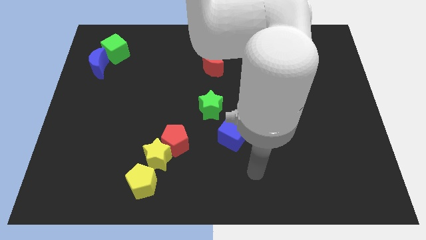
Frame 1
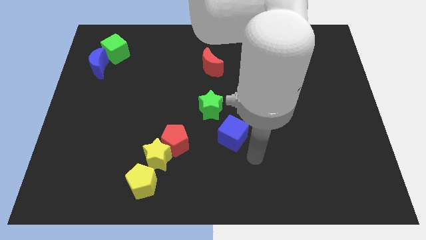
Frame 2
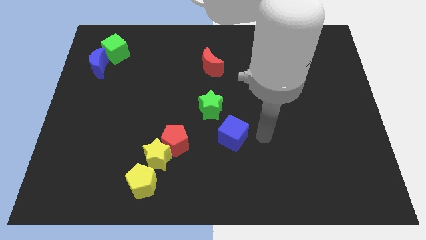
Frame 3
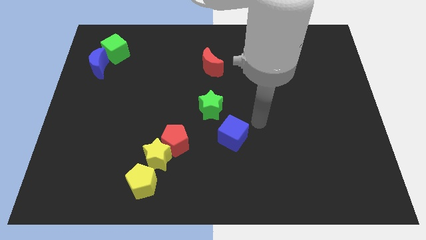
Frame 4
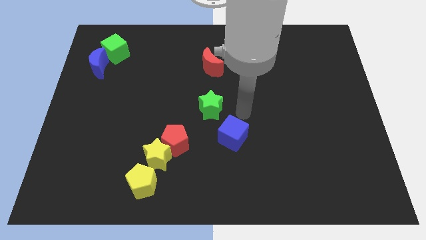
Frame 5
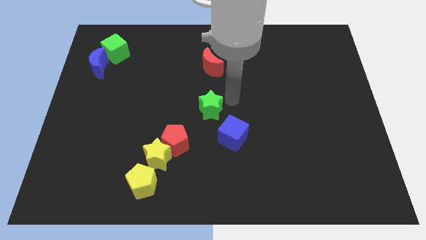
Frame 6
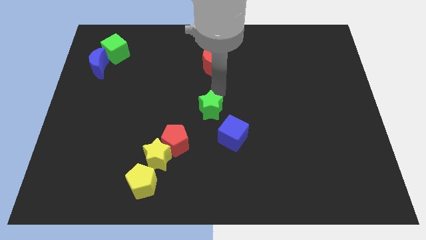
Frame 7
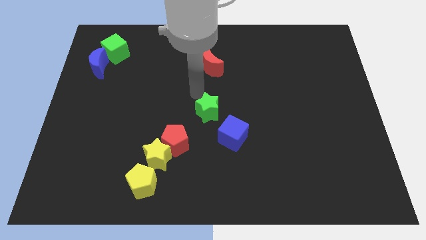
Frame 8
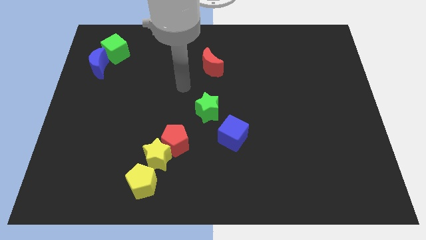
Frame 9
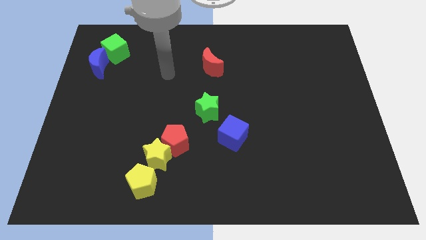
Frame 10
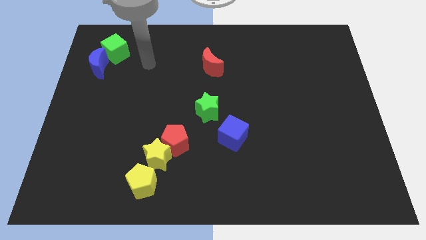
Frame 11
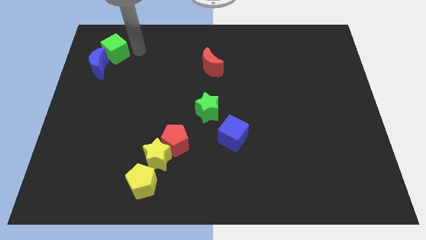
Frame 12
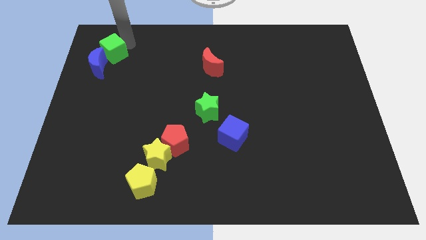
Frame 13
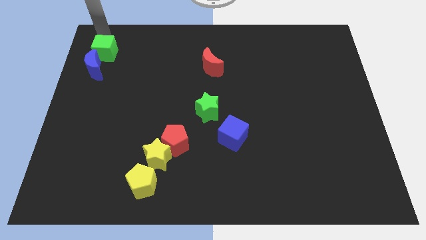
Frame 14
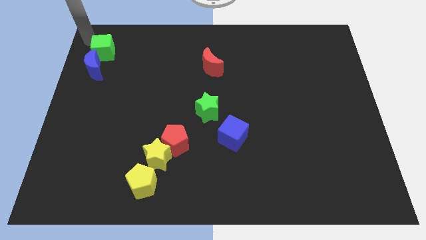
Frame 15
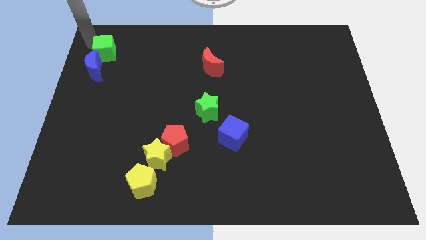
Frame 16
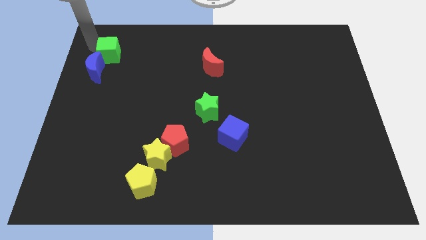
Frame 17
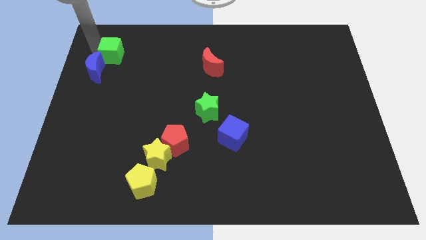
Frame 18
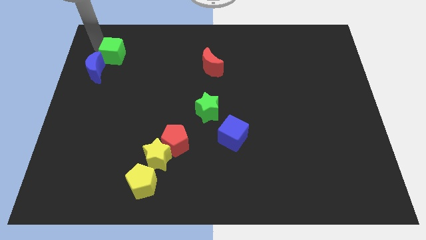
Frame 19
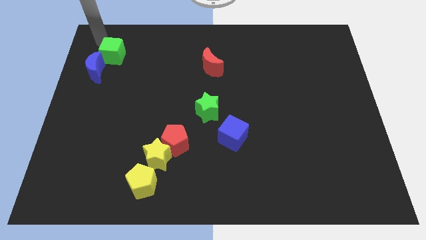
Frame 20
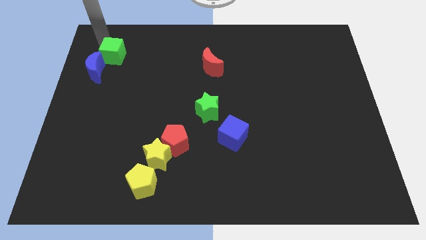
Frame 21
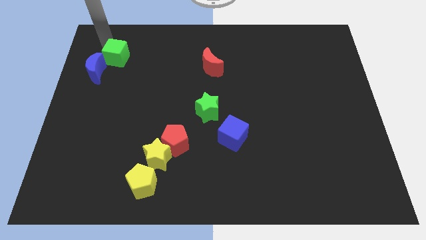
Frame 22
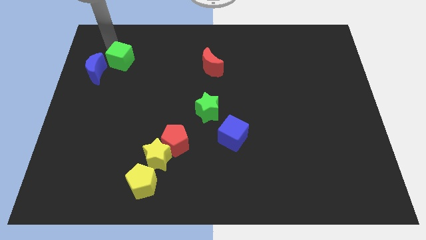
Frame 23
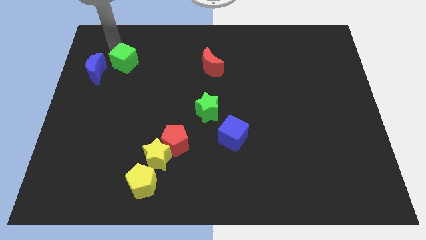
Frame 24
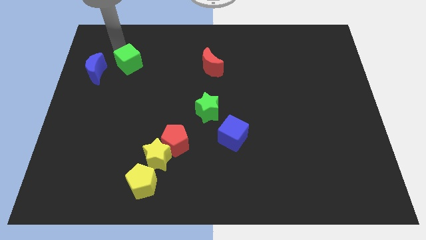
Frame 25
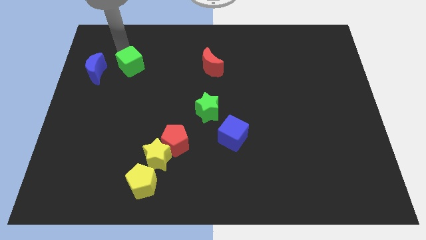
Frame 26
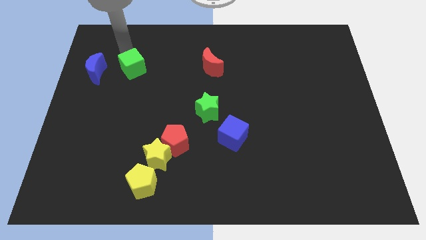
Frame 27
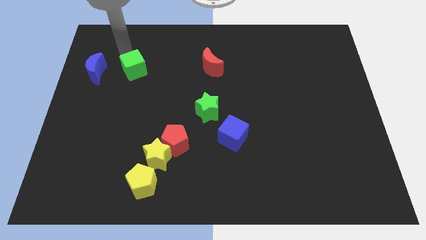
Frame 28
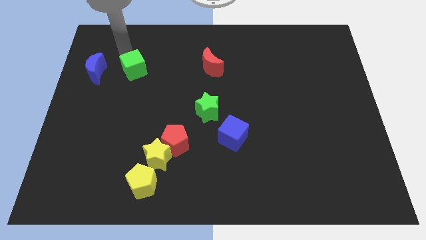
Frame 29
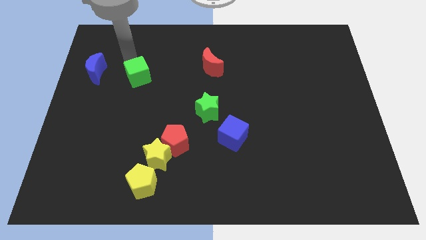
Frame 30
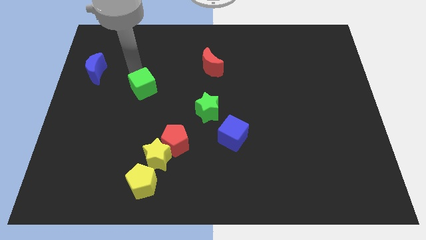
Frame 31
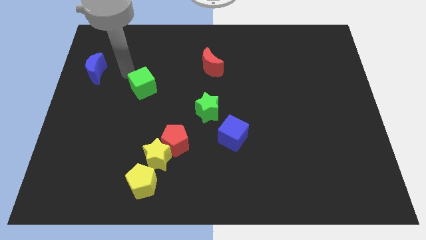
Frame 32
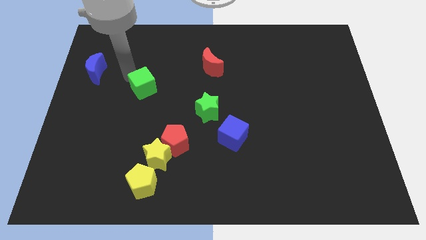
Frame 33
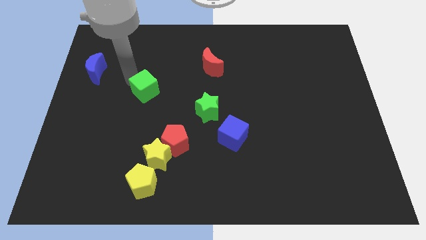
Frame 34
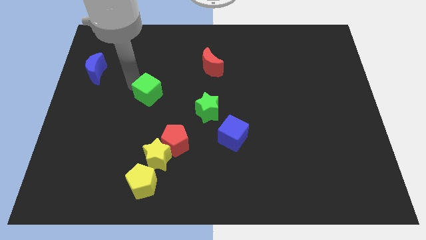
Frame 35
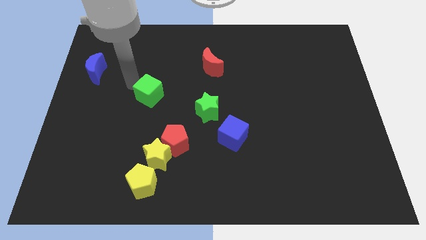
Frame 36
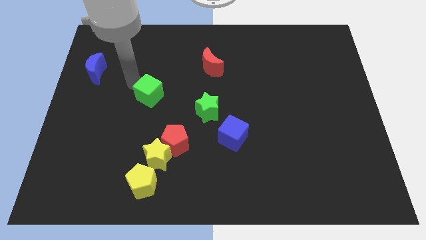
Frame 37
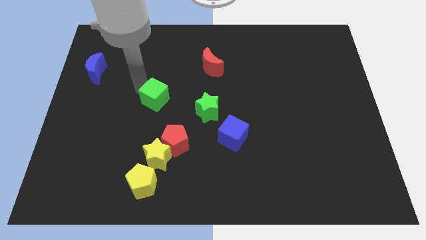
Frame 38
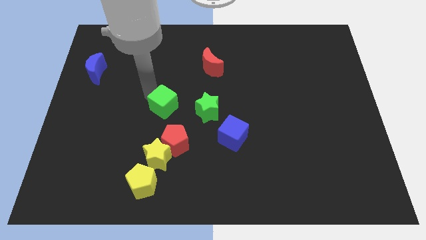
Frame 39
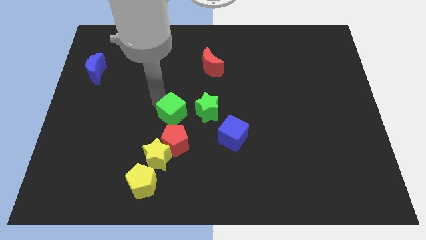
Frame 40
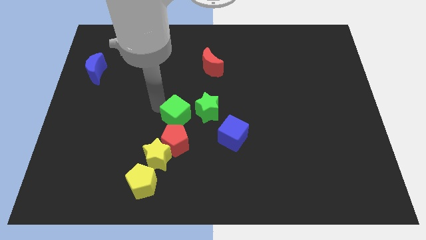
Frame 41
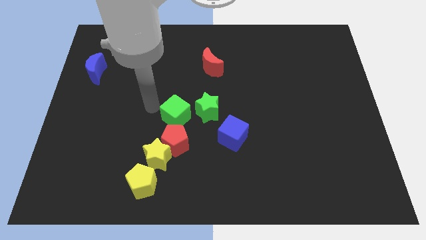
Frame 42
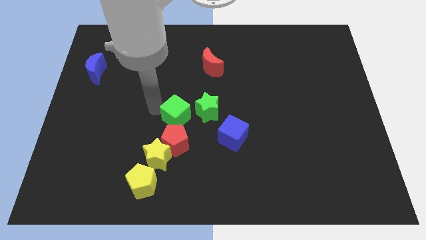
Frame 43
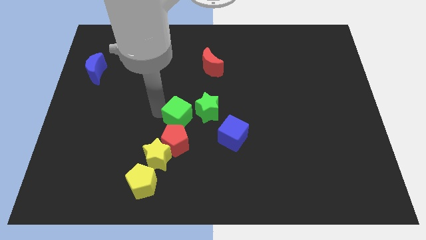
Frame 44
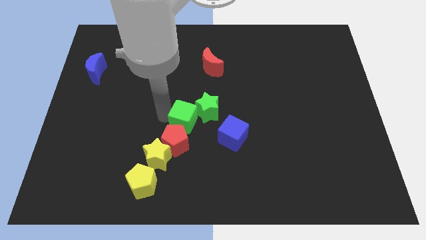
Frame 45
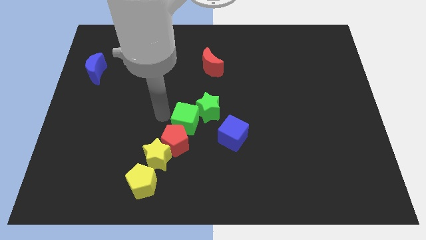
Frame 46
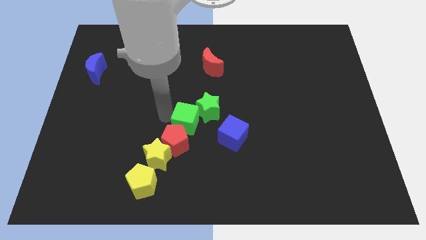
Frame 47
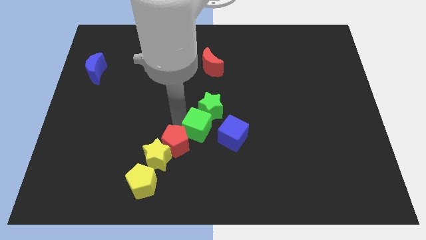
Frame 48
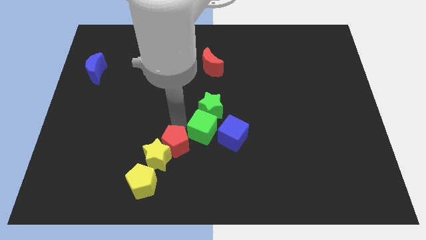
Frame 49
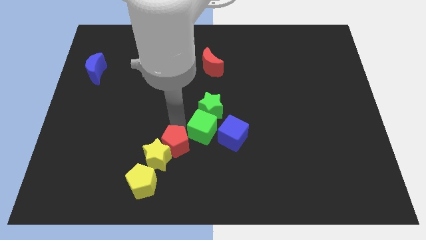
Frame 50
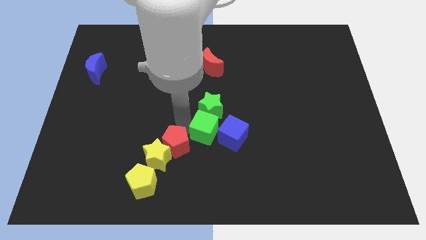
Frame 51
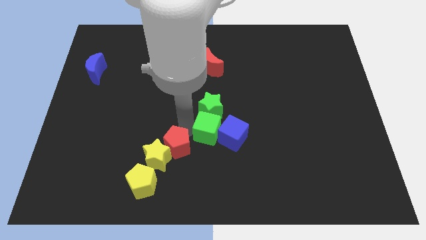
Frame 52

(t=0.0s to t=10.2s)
push the green cube towards the blue cube

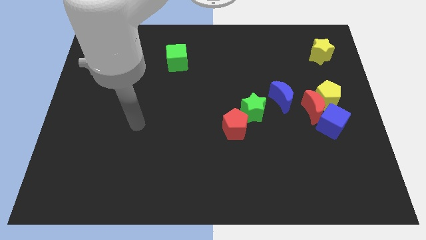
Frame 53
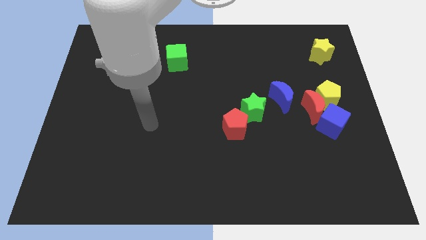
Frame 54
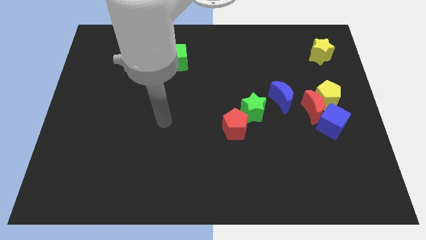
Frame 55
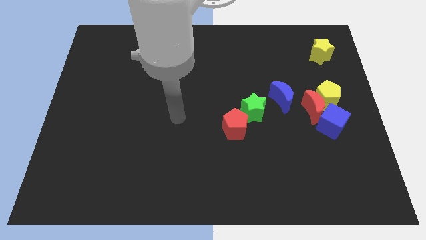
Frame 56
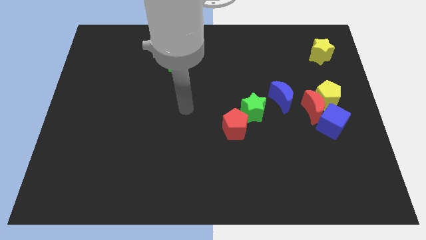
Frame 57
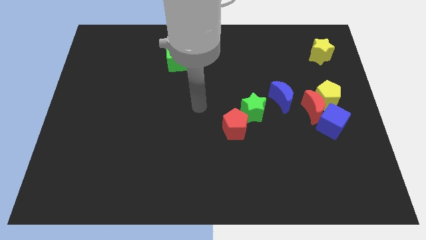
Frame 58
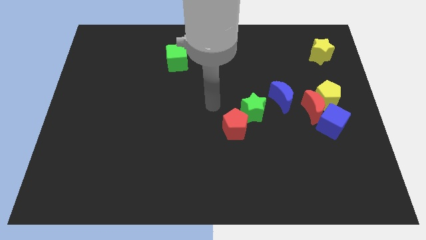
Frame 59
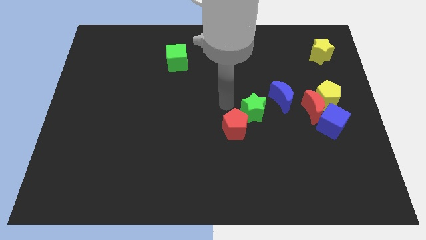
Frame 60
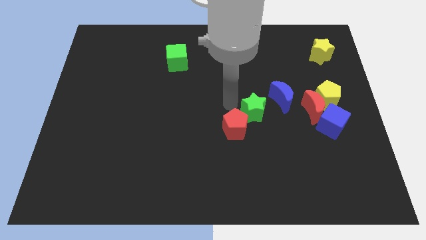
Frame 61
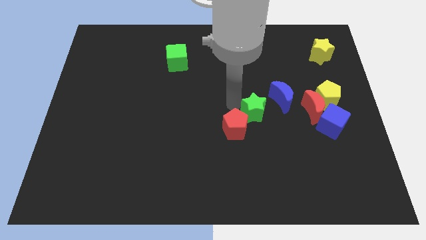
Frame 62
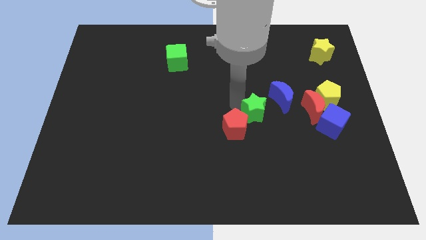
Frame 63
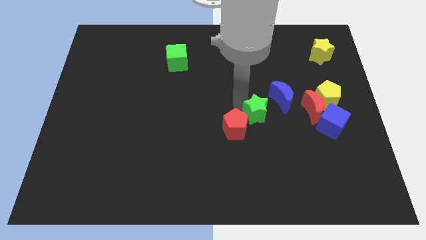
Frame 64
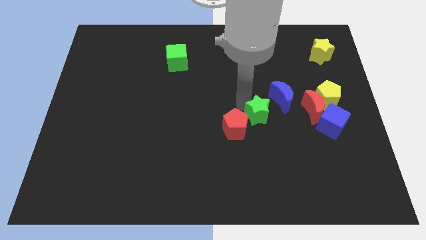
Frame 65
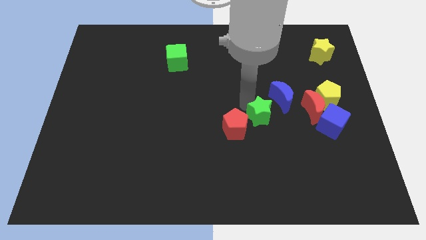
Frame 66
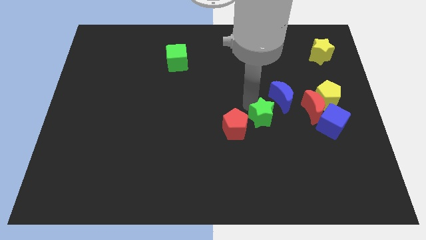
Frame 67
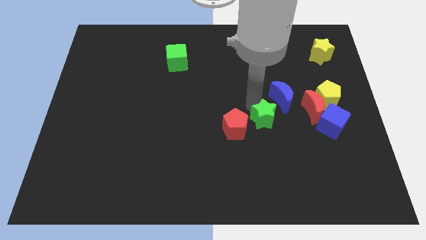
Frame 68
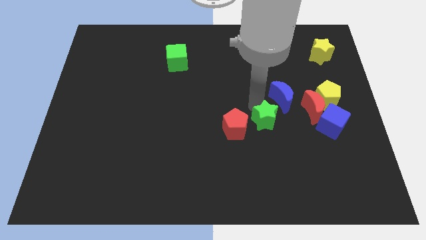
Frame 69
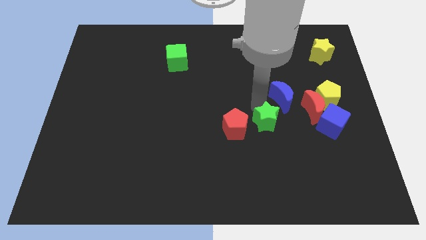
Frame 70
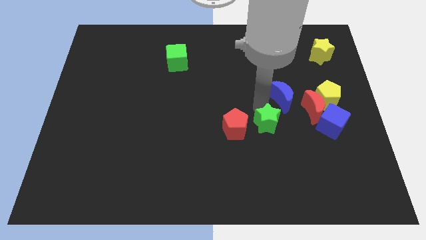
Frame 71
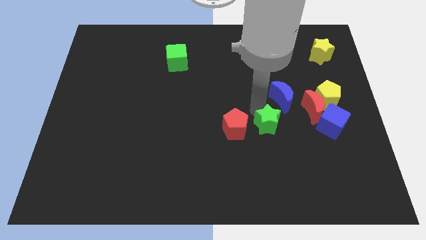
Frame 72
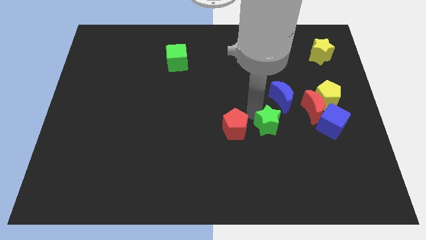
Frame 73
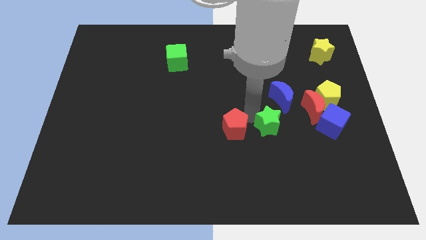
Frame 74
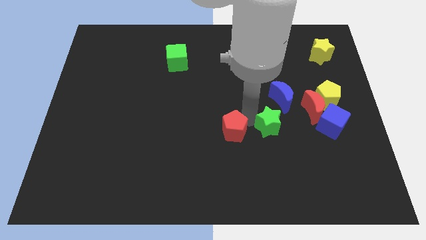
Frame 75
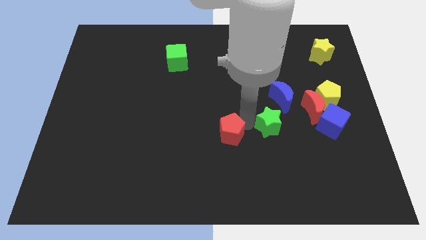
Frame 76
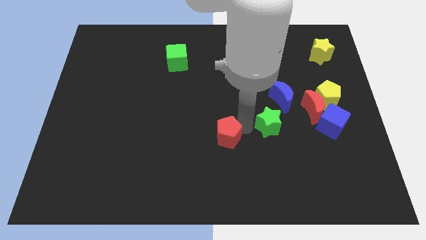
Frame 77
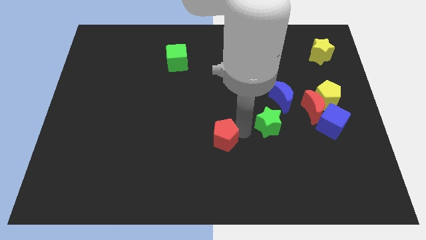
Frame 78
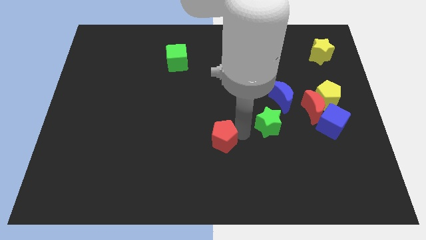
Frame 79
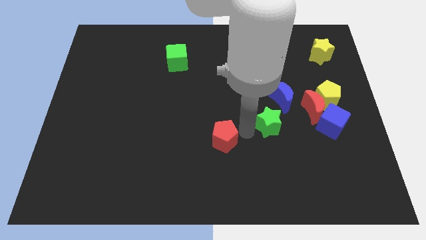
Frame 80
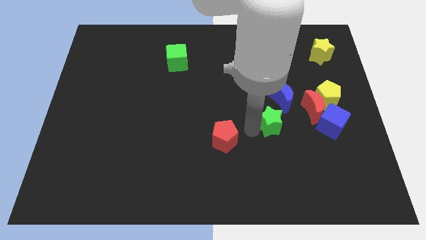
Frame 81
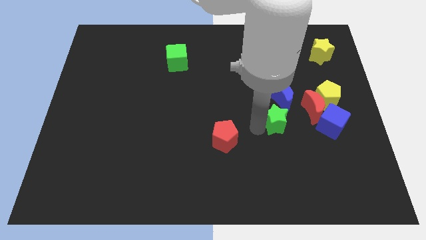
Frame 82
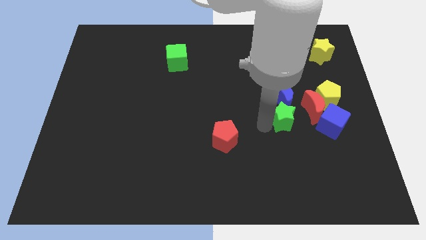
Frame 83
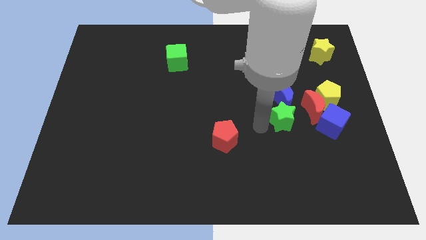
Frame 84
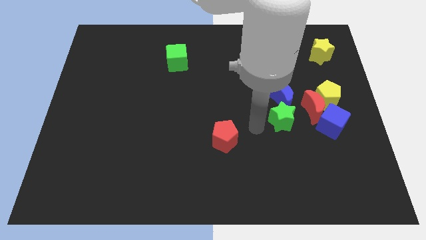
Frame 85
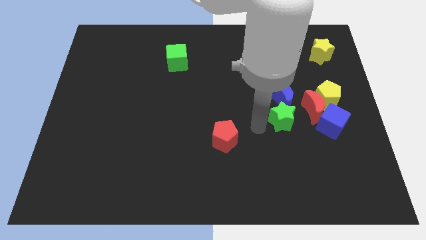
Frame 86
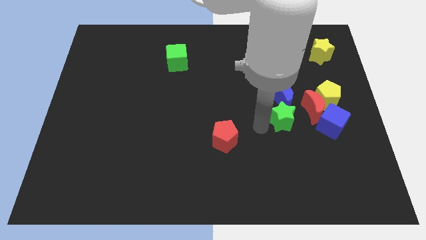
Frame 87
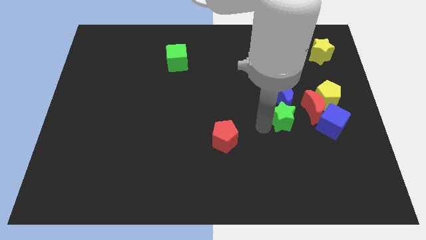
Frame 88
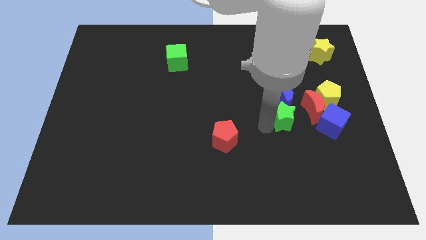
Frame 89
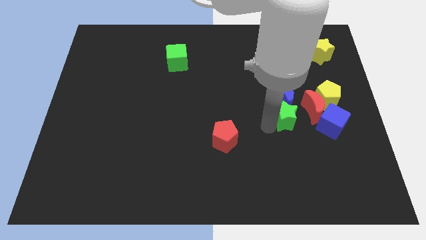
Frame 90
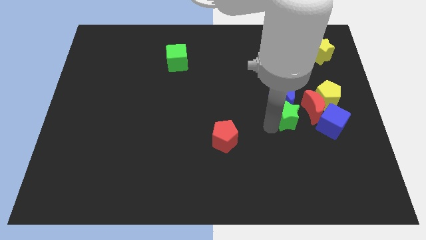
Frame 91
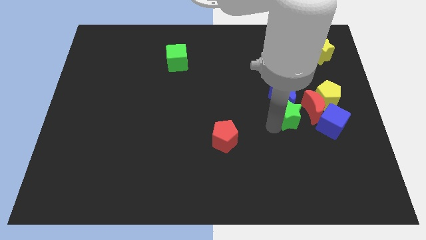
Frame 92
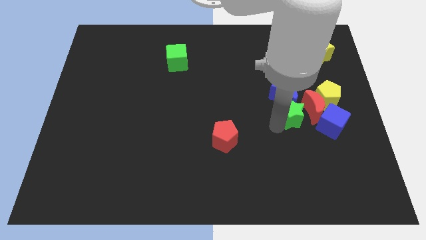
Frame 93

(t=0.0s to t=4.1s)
put the green star close to the red moon
